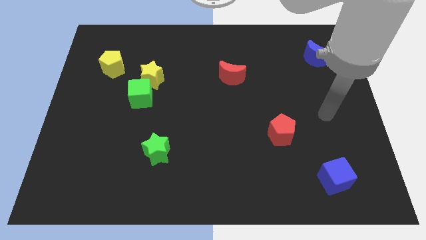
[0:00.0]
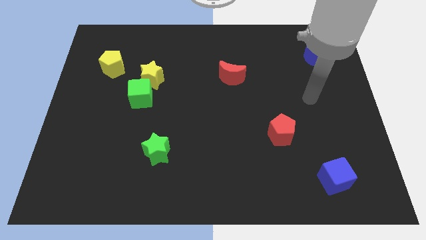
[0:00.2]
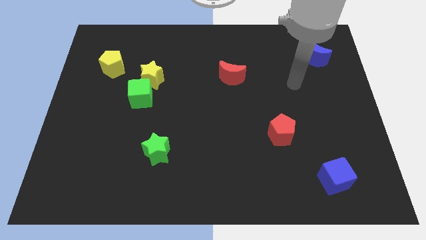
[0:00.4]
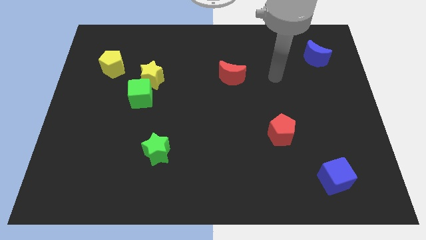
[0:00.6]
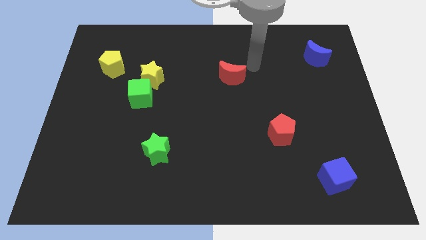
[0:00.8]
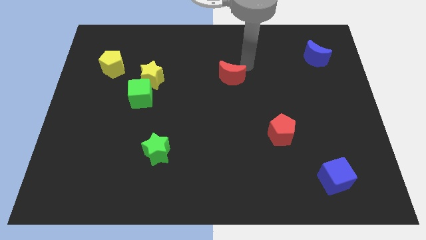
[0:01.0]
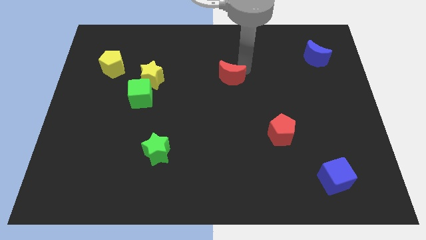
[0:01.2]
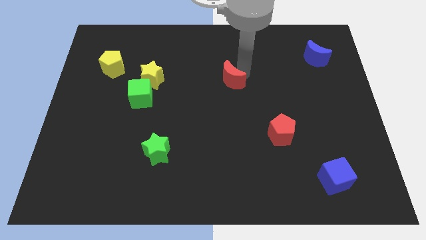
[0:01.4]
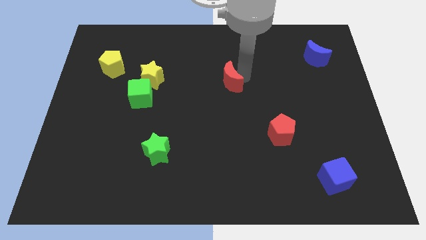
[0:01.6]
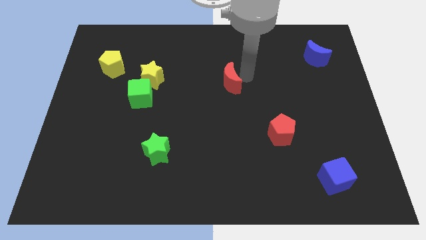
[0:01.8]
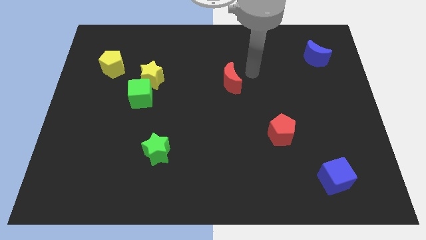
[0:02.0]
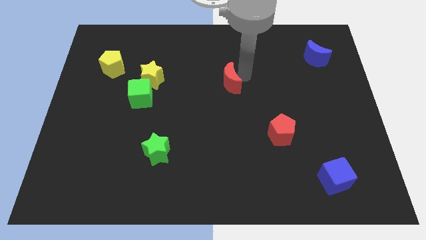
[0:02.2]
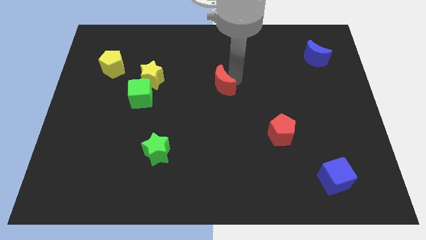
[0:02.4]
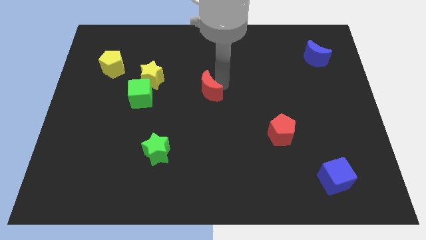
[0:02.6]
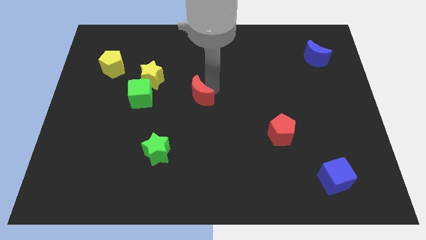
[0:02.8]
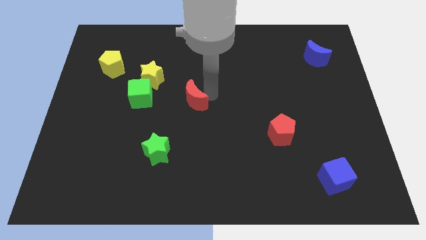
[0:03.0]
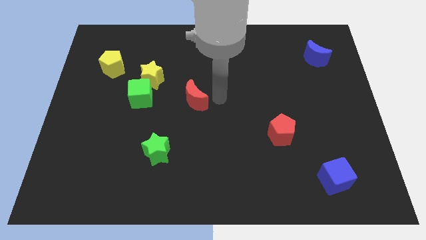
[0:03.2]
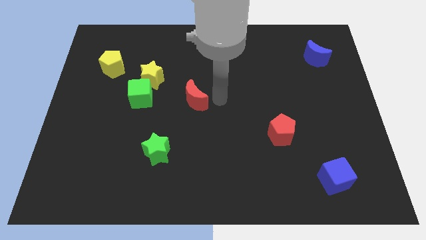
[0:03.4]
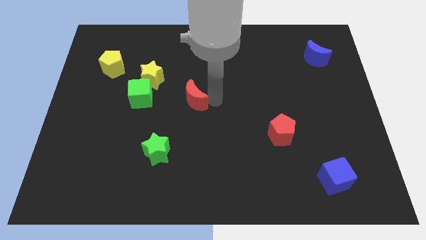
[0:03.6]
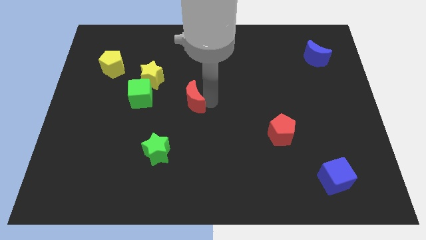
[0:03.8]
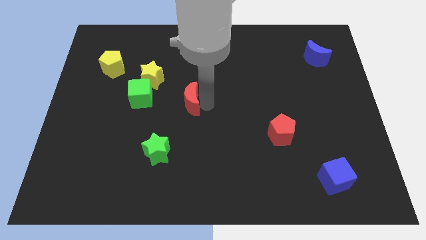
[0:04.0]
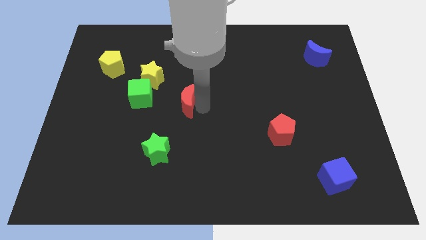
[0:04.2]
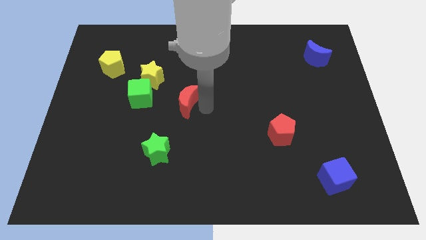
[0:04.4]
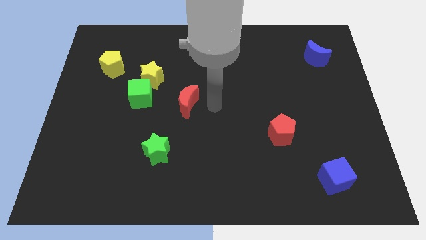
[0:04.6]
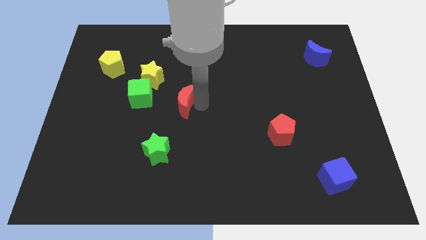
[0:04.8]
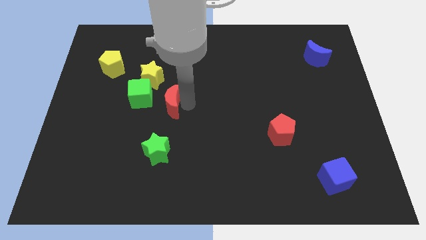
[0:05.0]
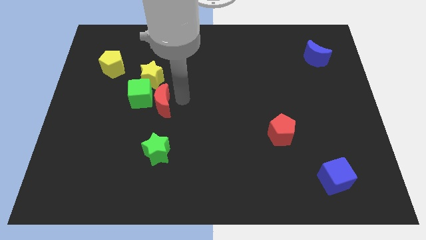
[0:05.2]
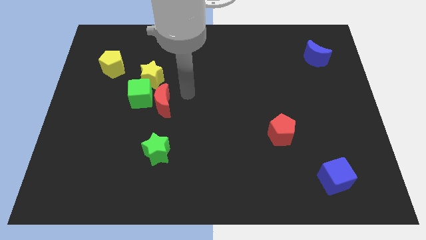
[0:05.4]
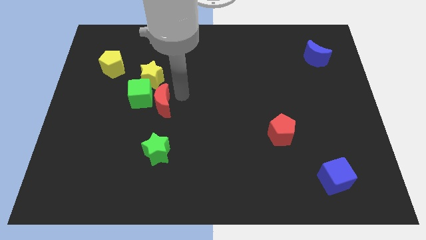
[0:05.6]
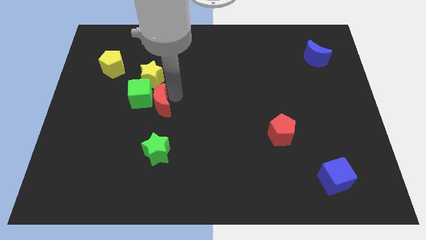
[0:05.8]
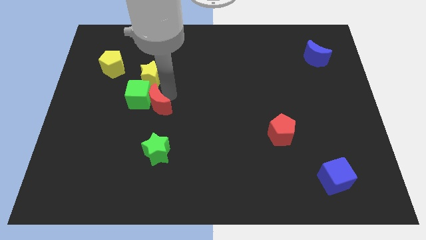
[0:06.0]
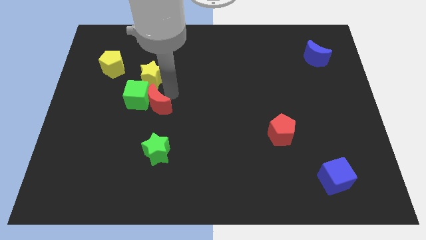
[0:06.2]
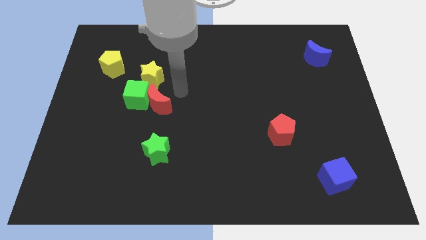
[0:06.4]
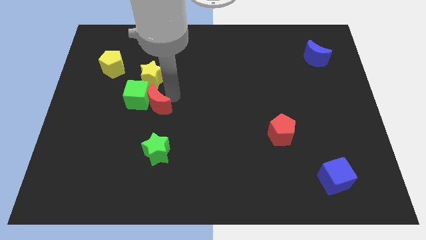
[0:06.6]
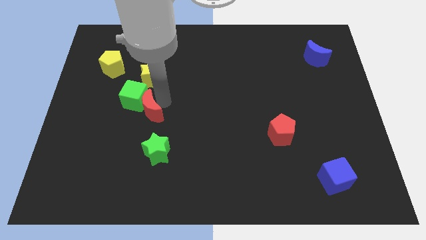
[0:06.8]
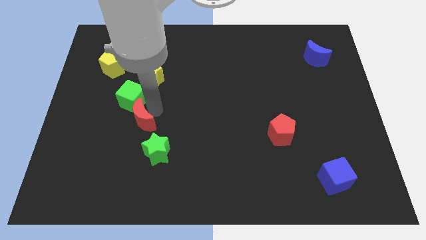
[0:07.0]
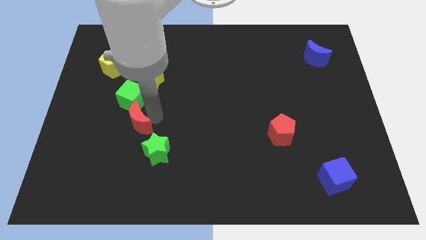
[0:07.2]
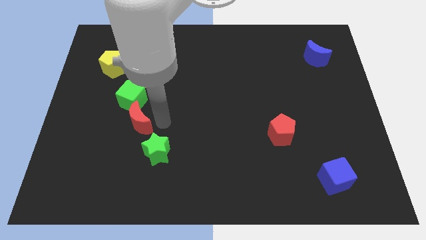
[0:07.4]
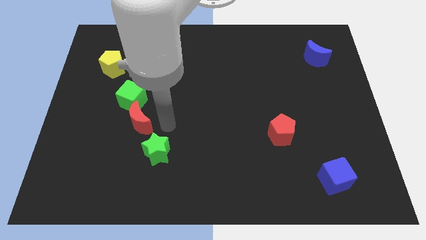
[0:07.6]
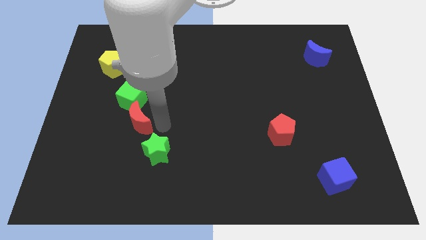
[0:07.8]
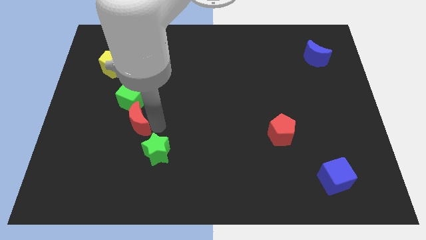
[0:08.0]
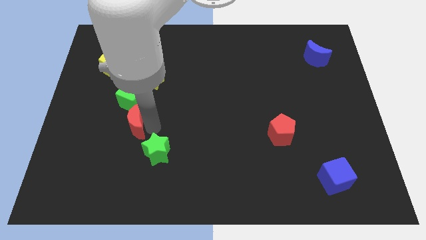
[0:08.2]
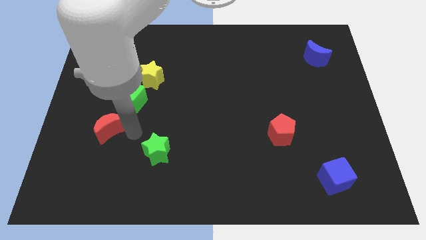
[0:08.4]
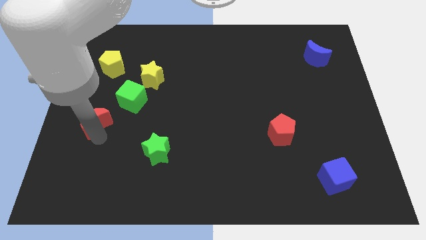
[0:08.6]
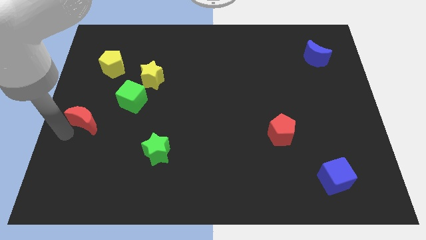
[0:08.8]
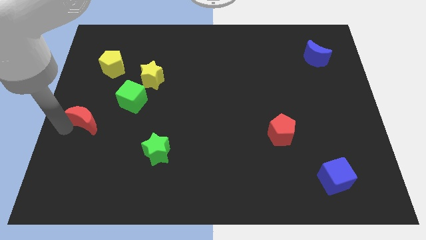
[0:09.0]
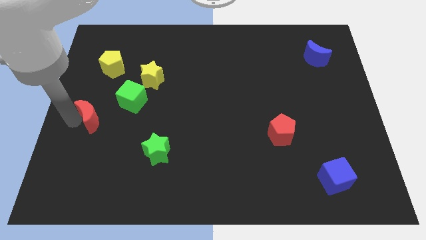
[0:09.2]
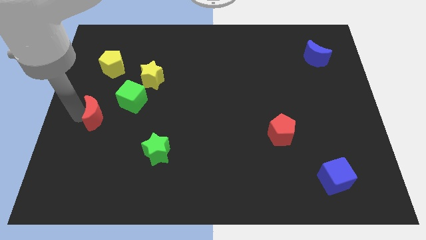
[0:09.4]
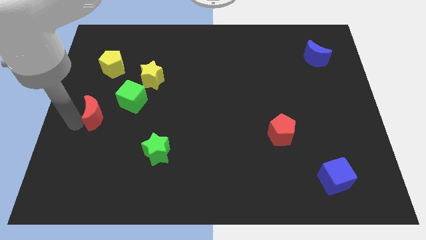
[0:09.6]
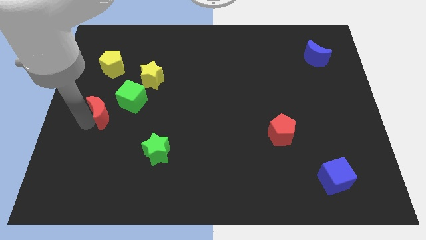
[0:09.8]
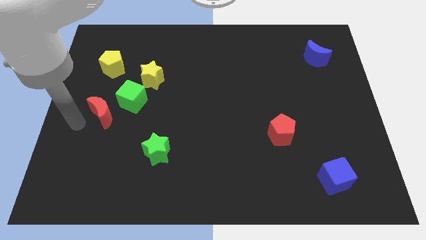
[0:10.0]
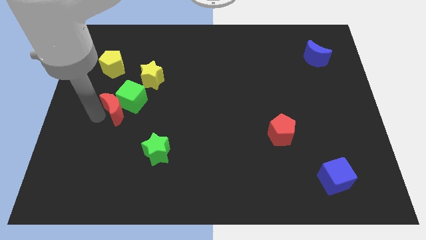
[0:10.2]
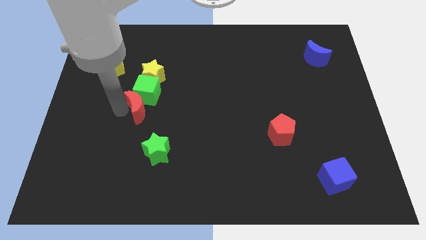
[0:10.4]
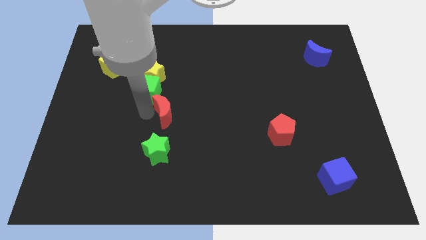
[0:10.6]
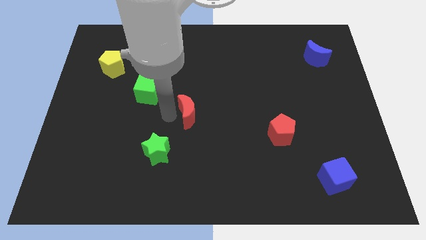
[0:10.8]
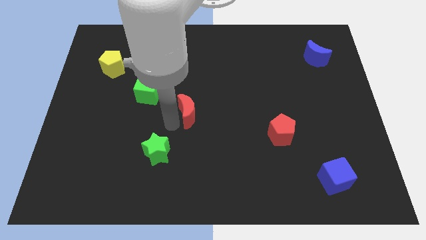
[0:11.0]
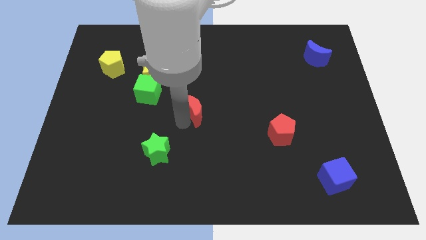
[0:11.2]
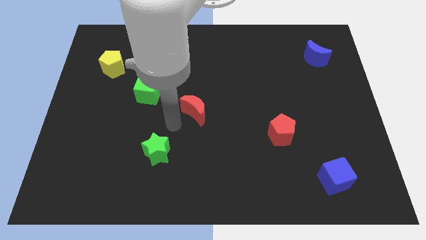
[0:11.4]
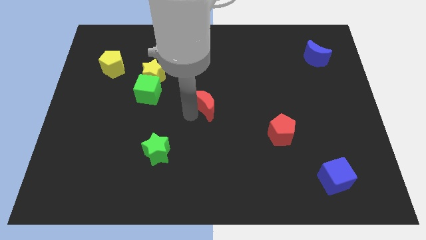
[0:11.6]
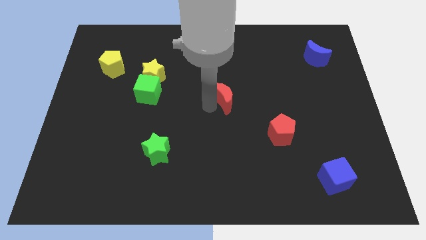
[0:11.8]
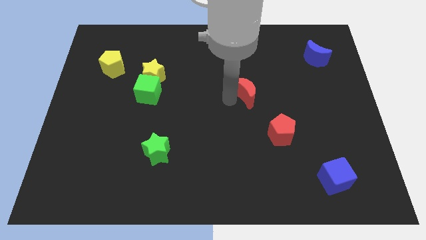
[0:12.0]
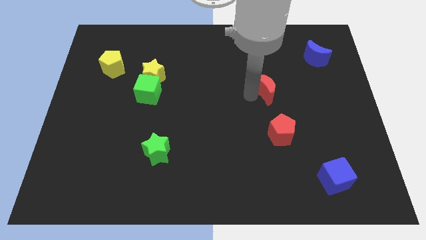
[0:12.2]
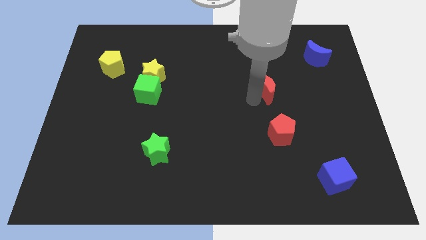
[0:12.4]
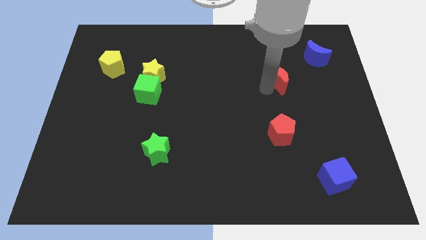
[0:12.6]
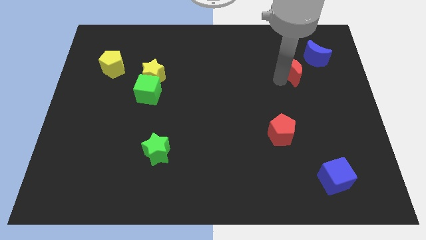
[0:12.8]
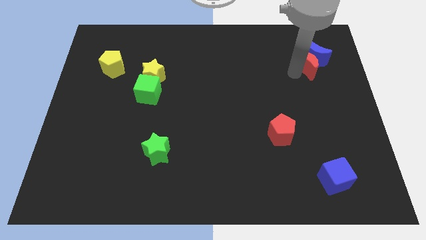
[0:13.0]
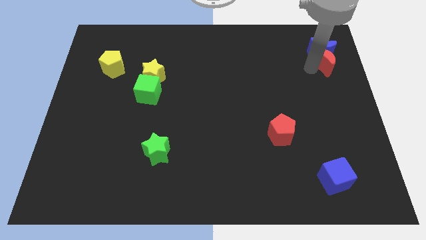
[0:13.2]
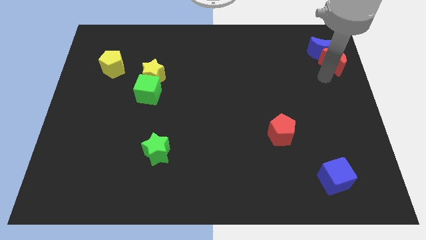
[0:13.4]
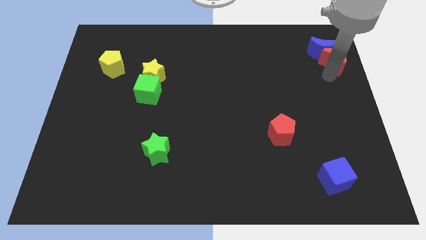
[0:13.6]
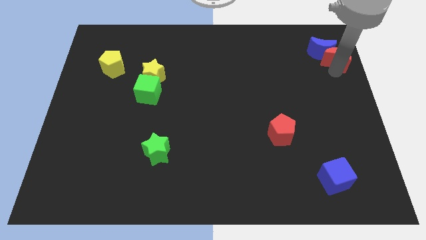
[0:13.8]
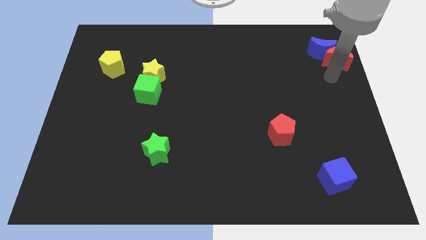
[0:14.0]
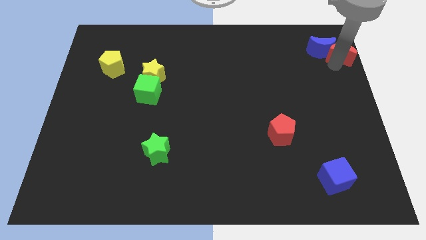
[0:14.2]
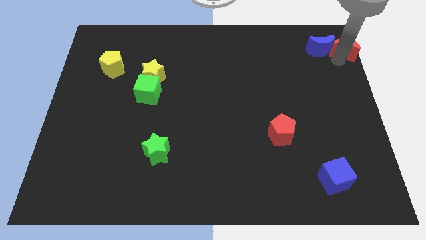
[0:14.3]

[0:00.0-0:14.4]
put the red moon to the top right of the board
